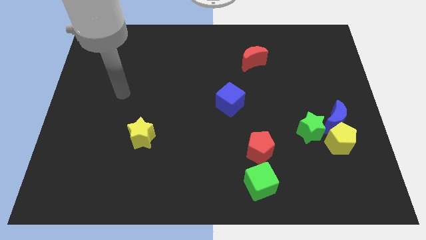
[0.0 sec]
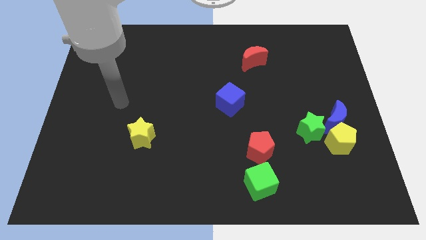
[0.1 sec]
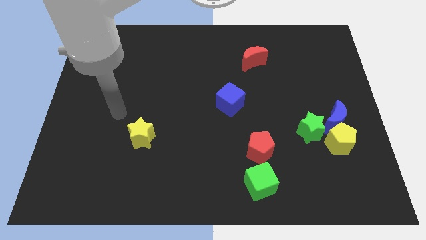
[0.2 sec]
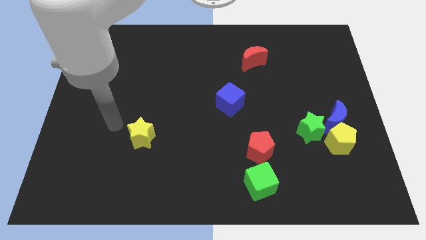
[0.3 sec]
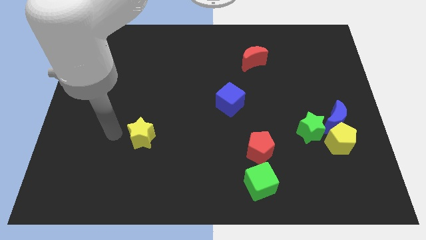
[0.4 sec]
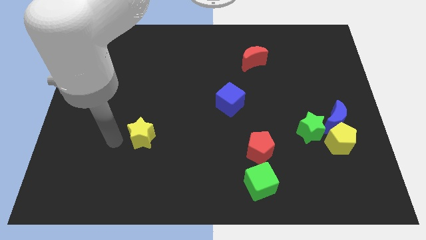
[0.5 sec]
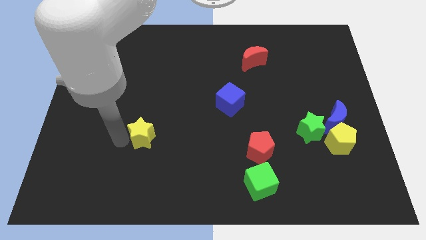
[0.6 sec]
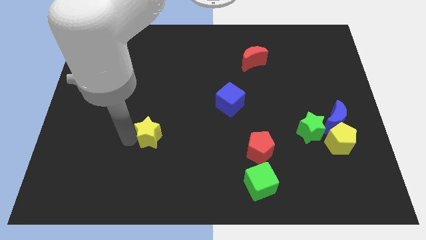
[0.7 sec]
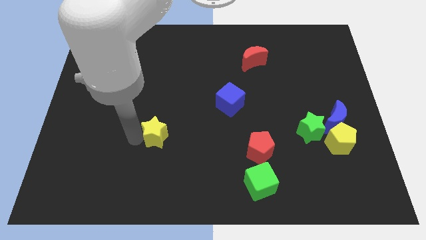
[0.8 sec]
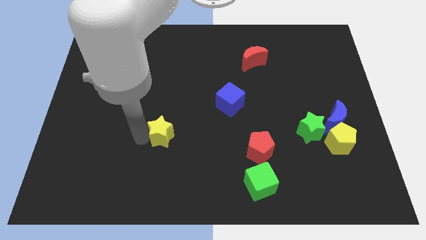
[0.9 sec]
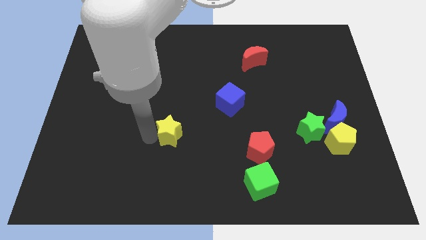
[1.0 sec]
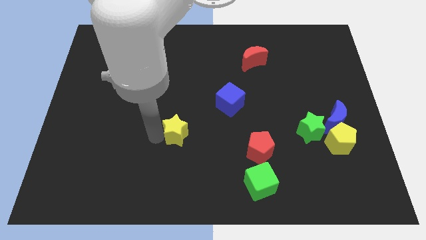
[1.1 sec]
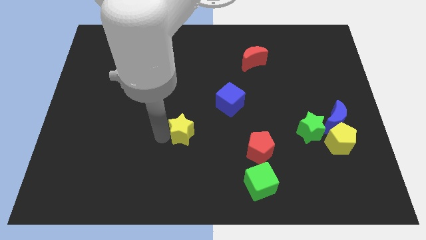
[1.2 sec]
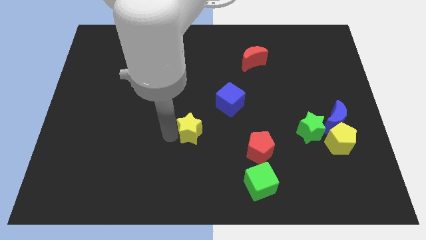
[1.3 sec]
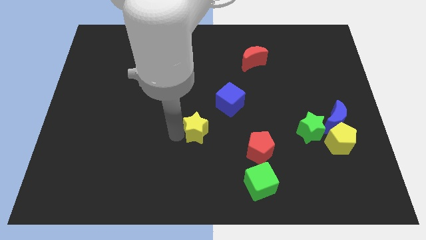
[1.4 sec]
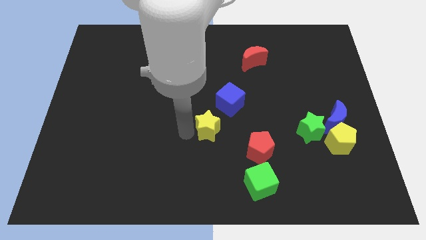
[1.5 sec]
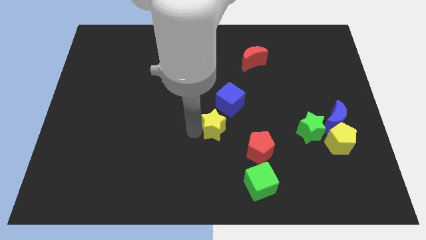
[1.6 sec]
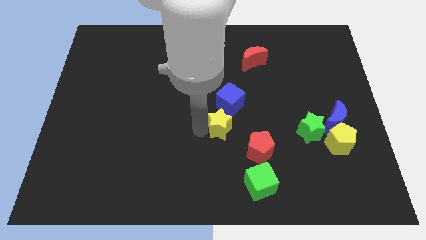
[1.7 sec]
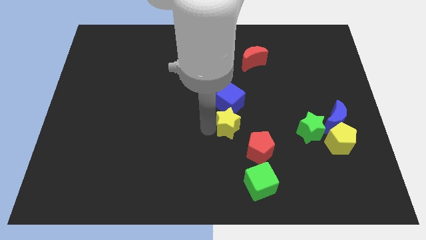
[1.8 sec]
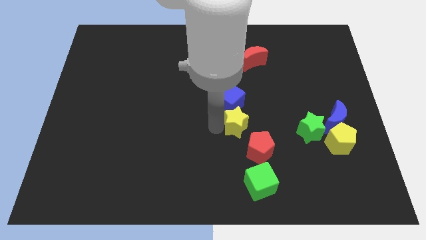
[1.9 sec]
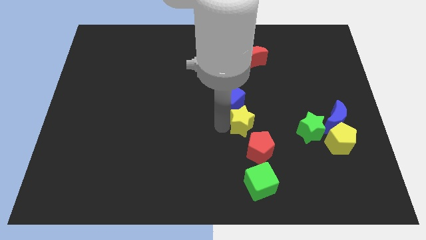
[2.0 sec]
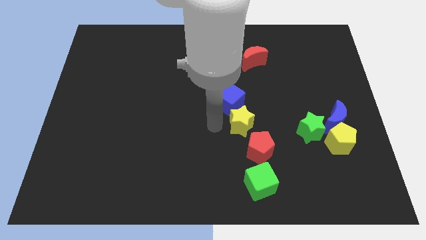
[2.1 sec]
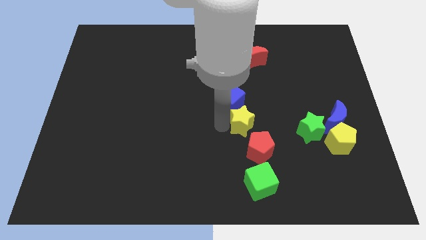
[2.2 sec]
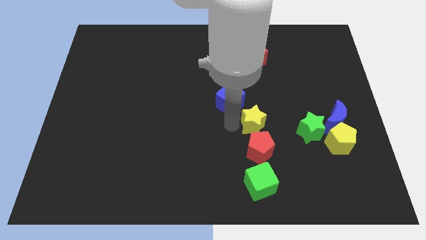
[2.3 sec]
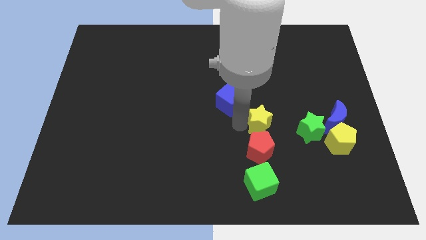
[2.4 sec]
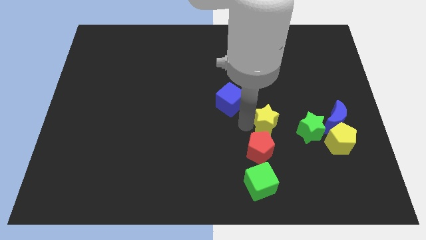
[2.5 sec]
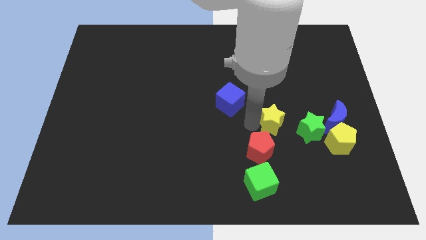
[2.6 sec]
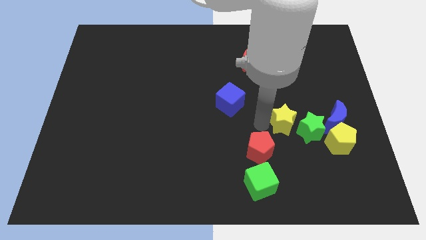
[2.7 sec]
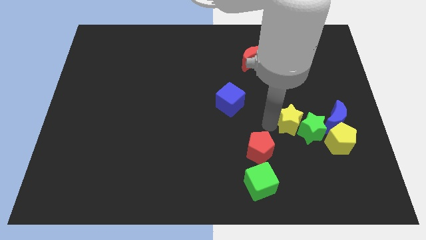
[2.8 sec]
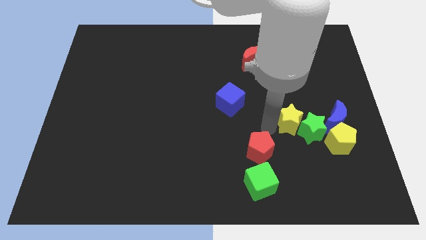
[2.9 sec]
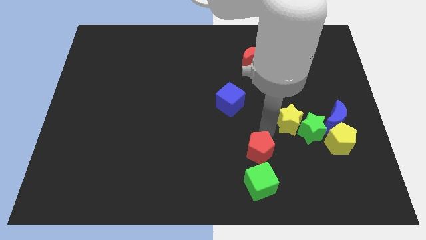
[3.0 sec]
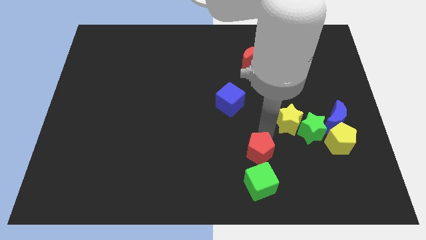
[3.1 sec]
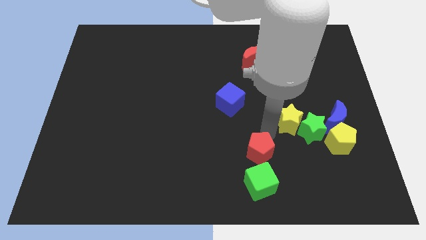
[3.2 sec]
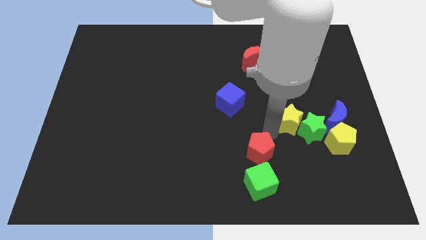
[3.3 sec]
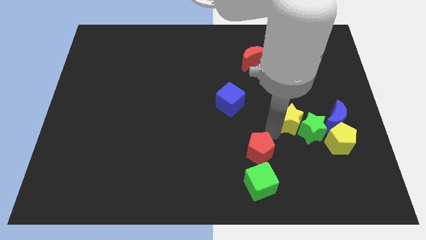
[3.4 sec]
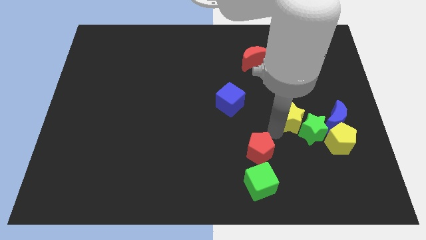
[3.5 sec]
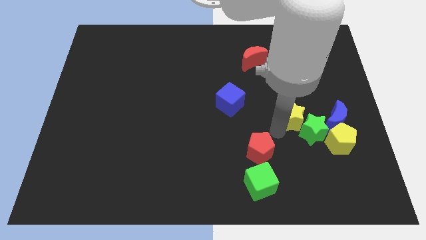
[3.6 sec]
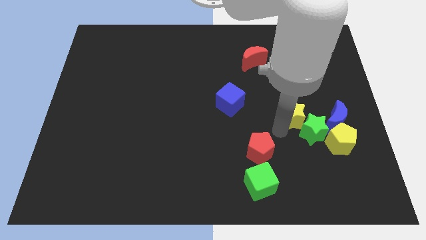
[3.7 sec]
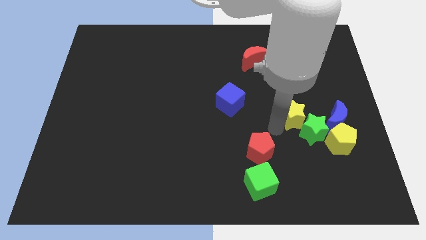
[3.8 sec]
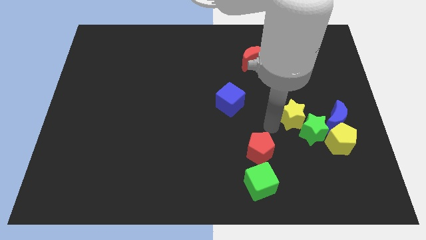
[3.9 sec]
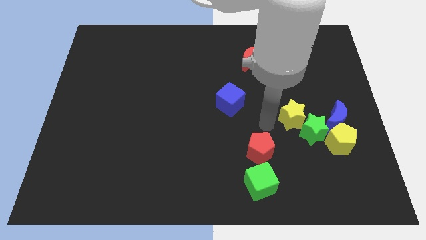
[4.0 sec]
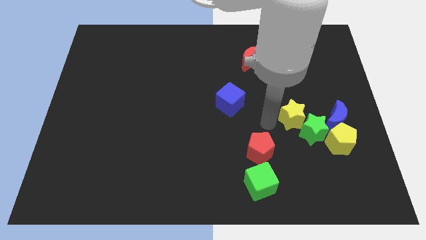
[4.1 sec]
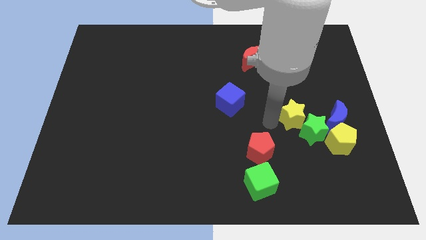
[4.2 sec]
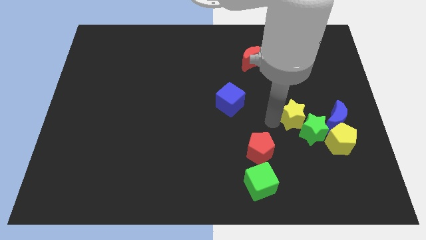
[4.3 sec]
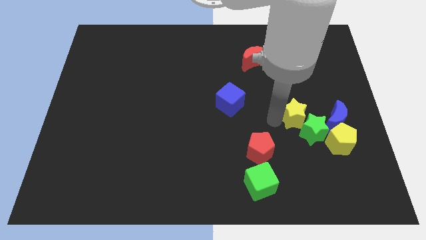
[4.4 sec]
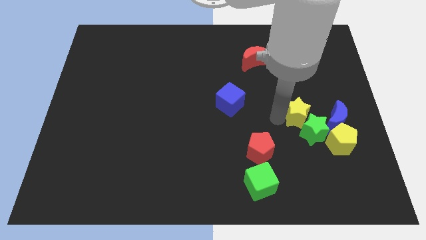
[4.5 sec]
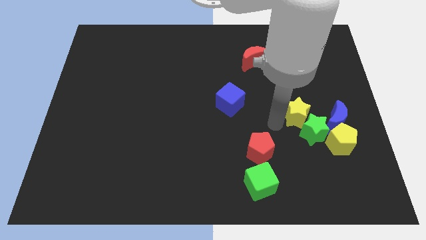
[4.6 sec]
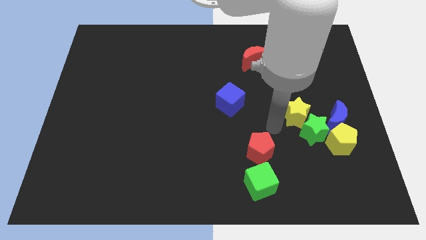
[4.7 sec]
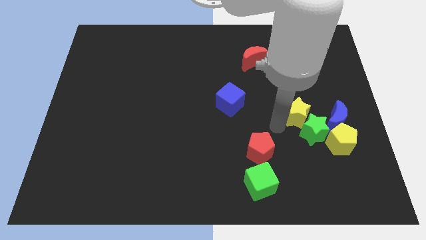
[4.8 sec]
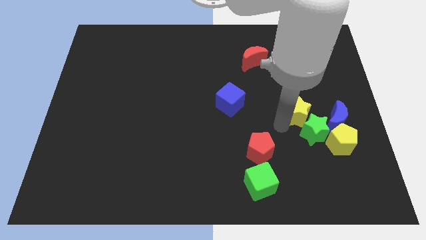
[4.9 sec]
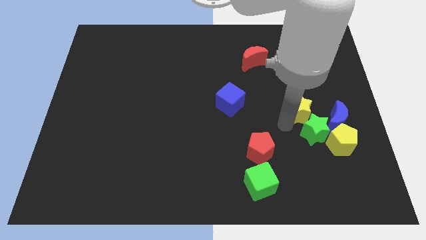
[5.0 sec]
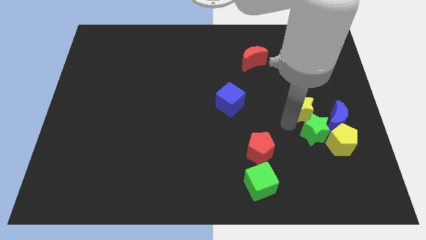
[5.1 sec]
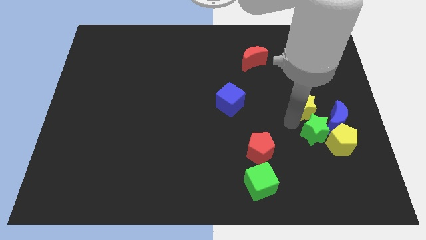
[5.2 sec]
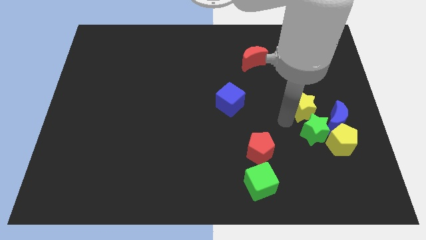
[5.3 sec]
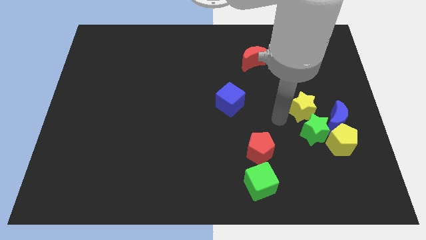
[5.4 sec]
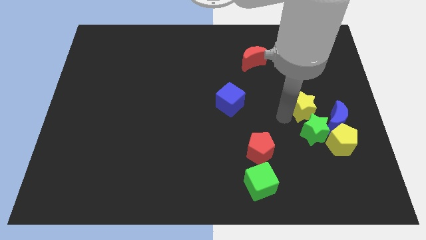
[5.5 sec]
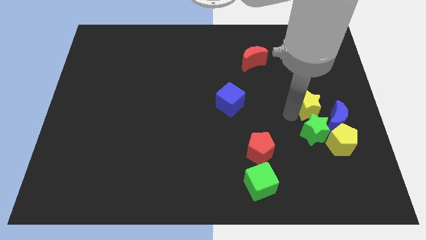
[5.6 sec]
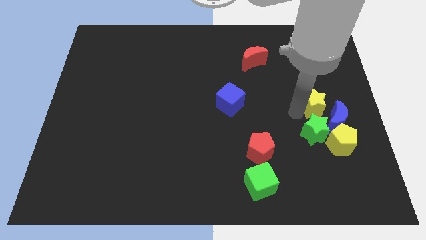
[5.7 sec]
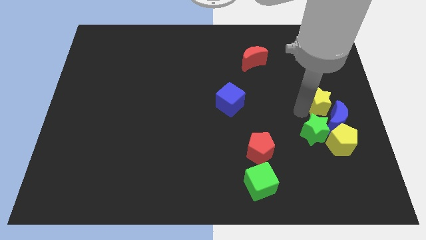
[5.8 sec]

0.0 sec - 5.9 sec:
slide the yellow star to the right side
